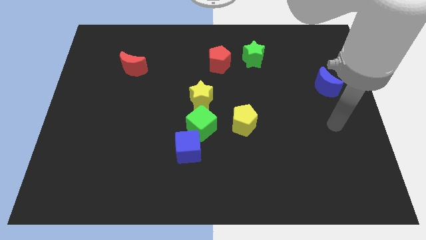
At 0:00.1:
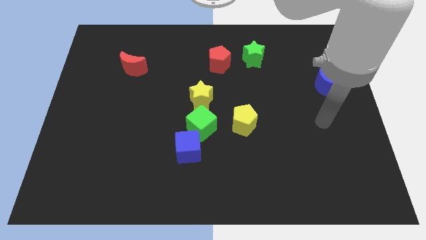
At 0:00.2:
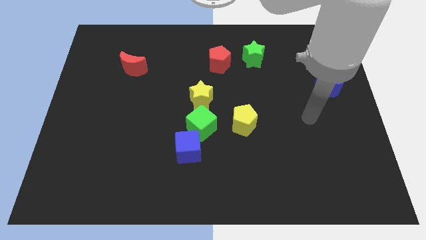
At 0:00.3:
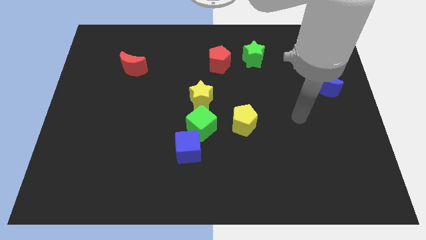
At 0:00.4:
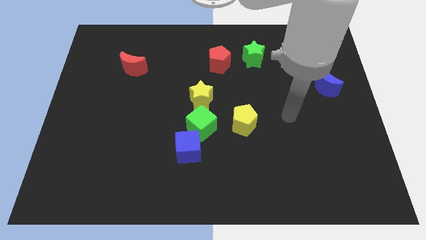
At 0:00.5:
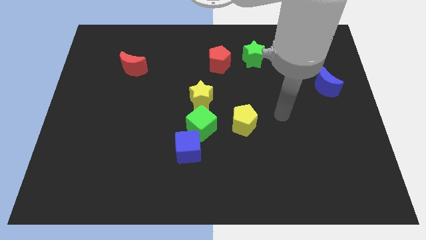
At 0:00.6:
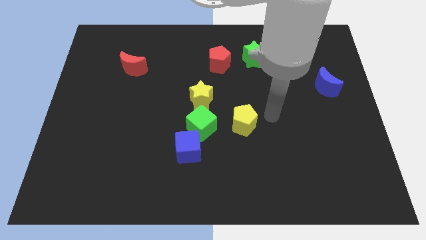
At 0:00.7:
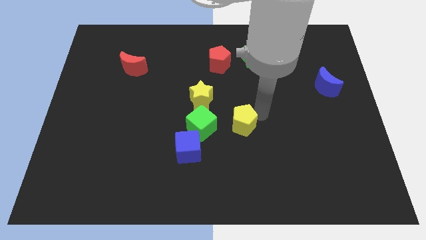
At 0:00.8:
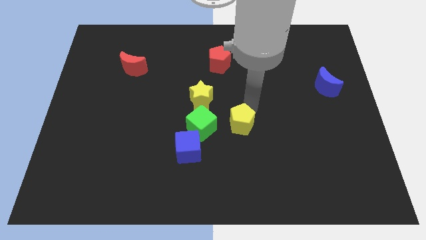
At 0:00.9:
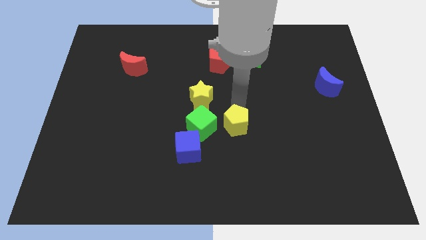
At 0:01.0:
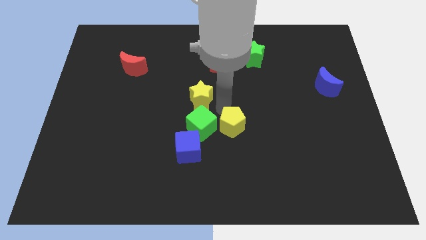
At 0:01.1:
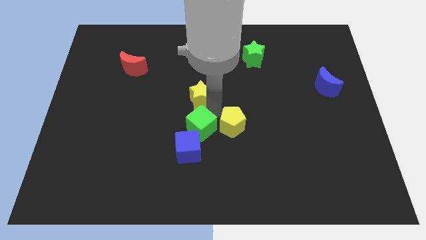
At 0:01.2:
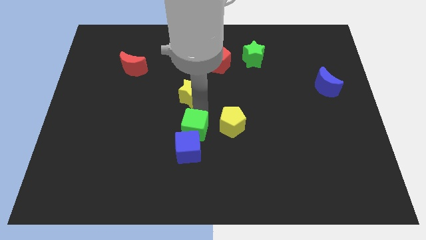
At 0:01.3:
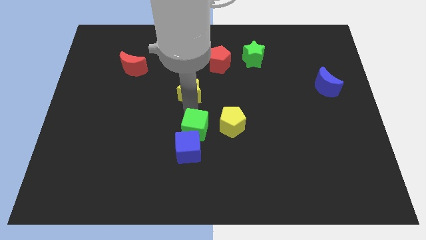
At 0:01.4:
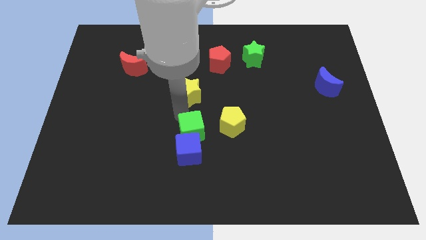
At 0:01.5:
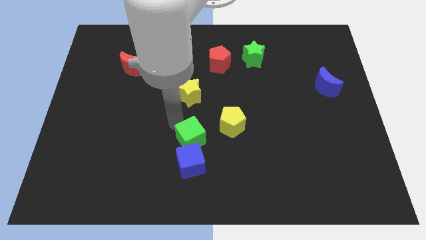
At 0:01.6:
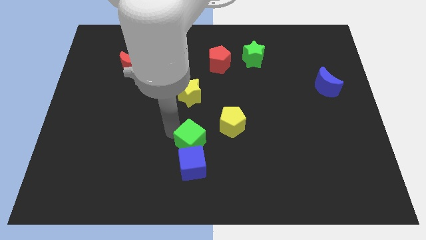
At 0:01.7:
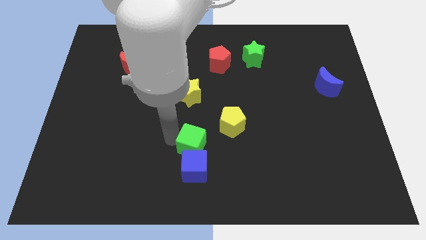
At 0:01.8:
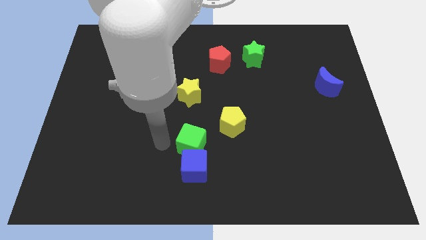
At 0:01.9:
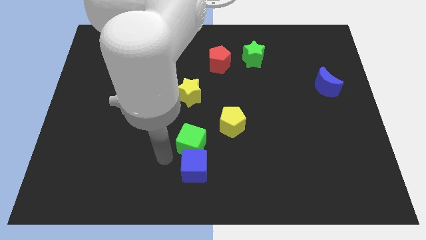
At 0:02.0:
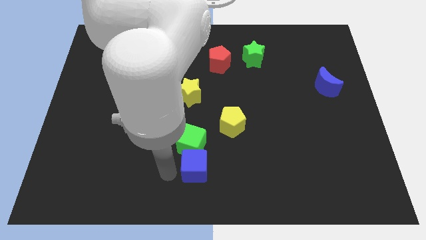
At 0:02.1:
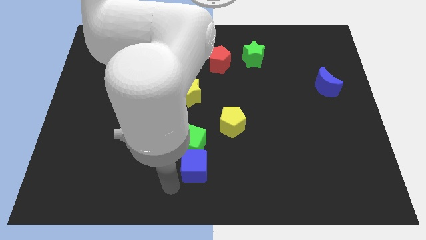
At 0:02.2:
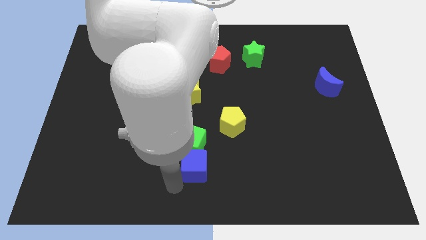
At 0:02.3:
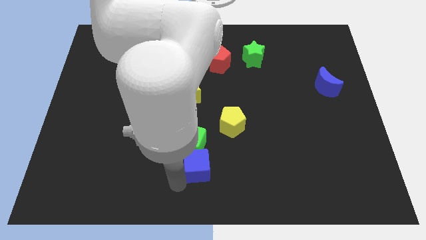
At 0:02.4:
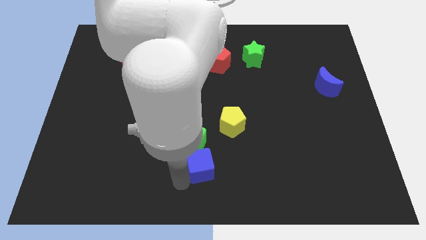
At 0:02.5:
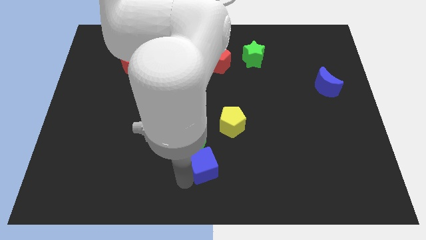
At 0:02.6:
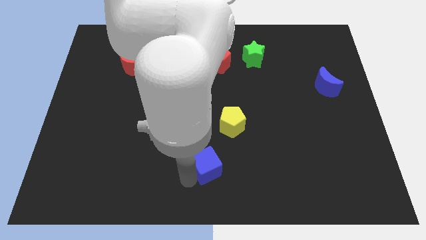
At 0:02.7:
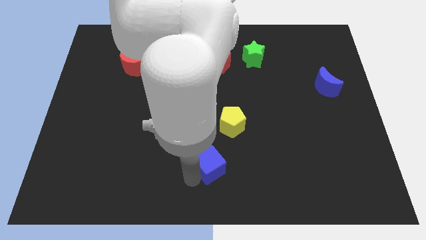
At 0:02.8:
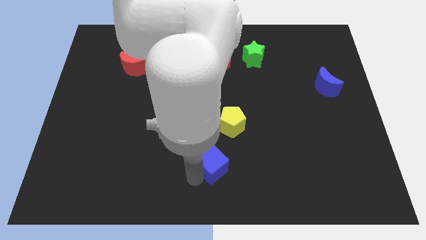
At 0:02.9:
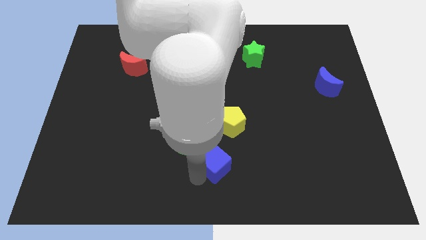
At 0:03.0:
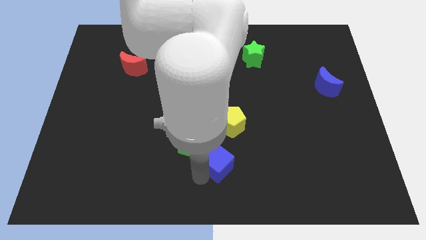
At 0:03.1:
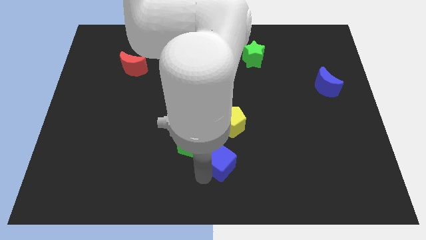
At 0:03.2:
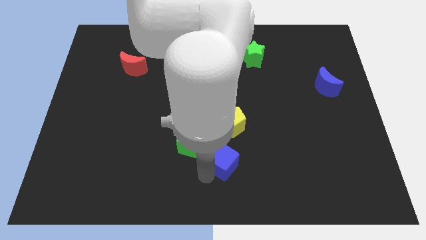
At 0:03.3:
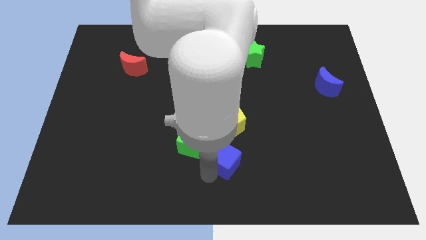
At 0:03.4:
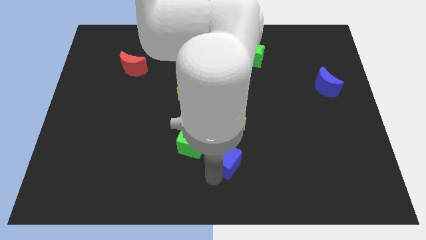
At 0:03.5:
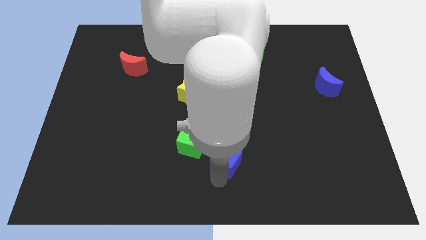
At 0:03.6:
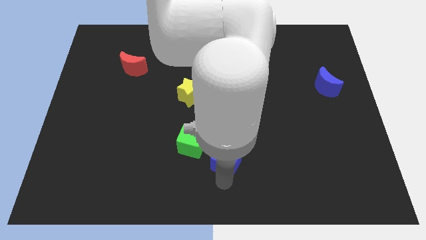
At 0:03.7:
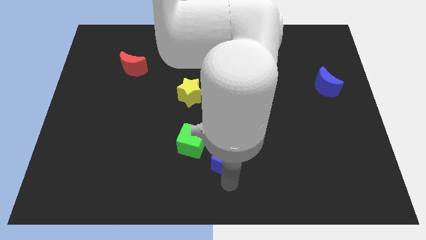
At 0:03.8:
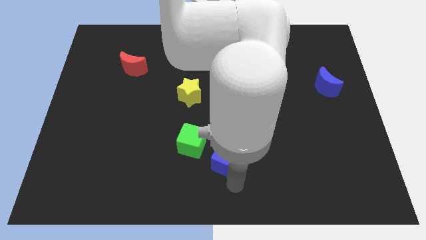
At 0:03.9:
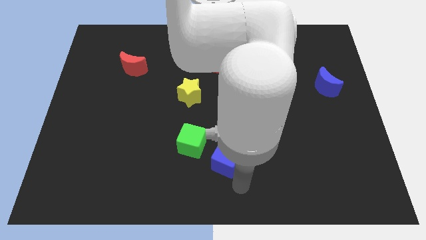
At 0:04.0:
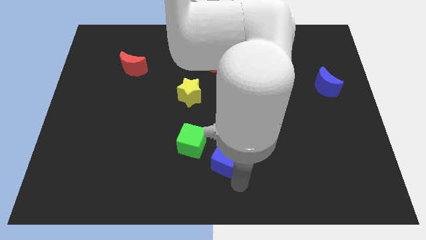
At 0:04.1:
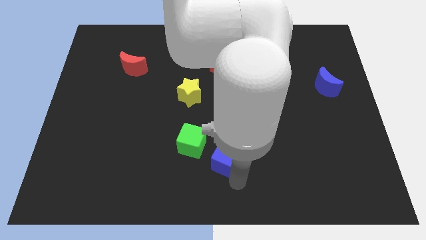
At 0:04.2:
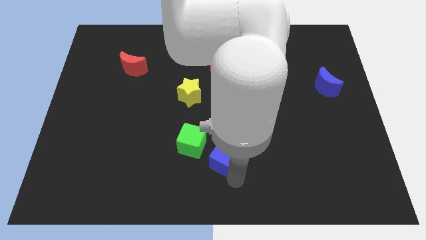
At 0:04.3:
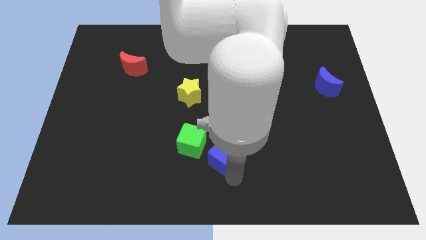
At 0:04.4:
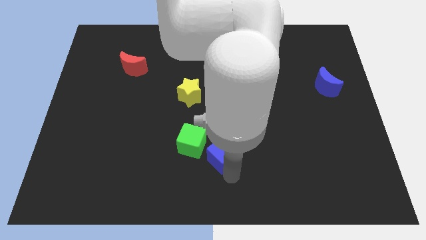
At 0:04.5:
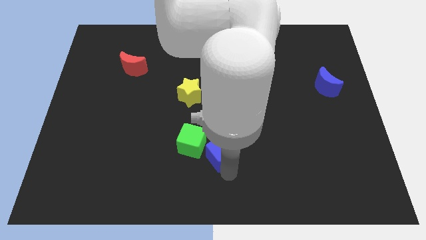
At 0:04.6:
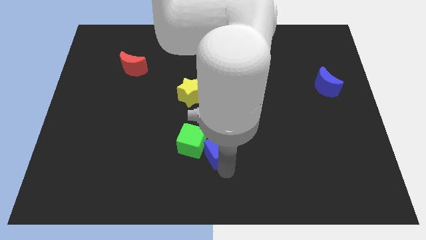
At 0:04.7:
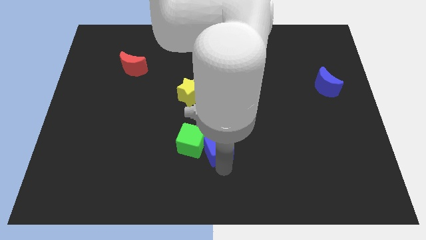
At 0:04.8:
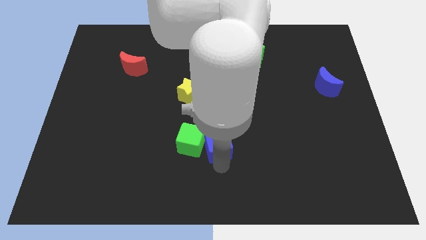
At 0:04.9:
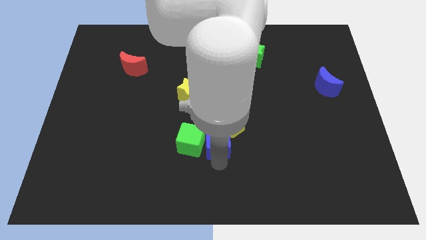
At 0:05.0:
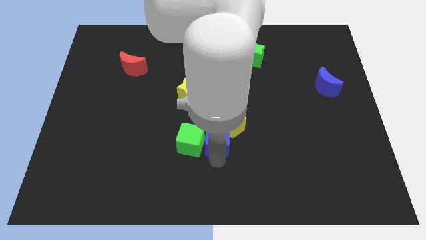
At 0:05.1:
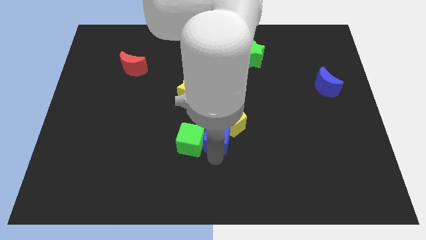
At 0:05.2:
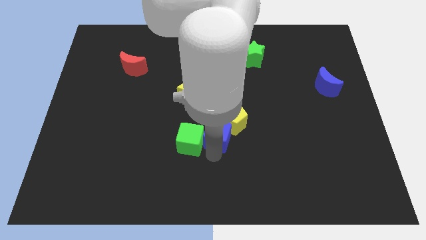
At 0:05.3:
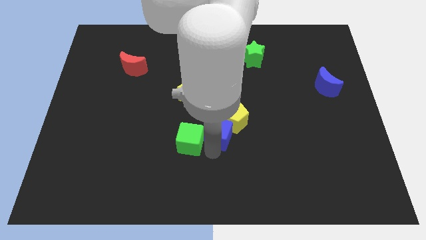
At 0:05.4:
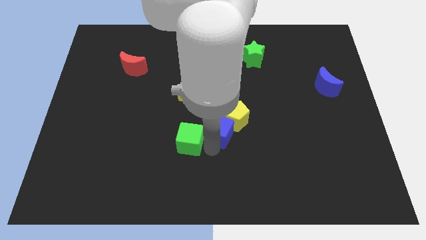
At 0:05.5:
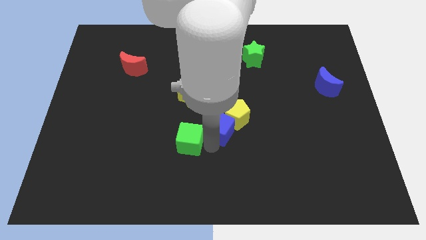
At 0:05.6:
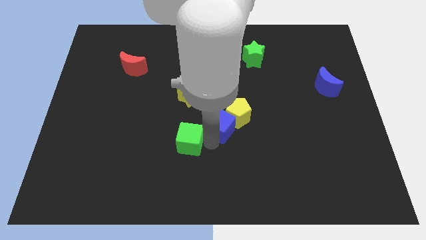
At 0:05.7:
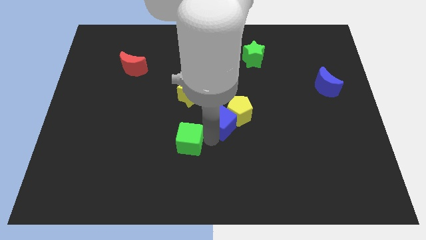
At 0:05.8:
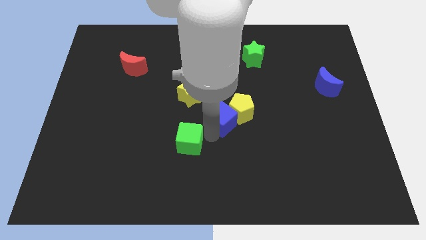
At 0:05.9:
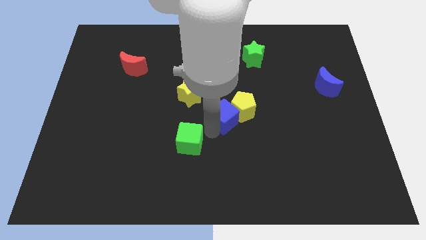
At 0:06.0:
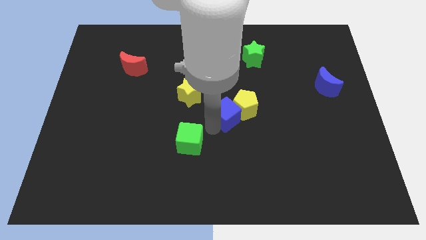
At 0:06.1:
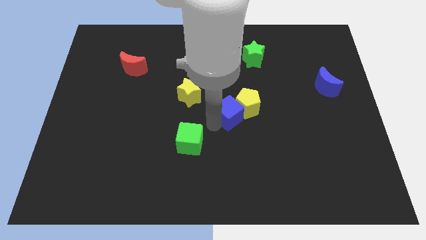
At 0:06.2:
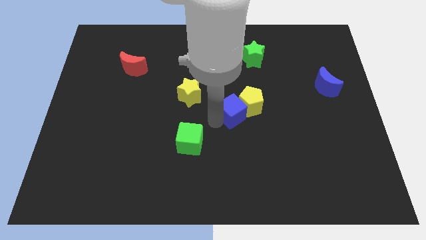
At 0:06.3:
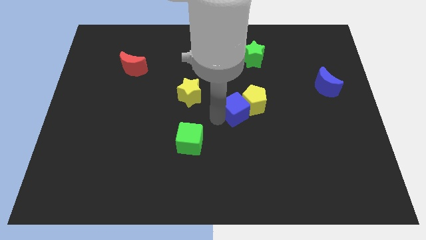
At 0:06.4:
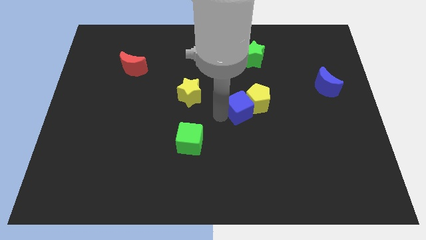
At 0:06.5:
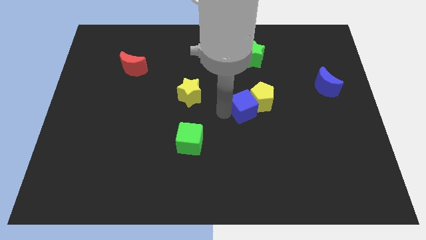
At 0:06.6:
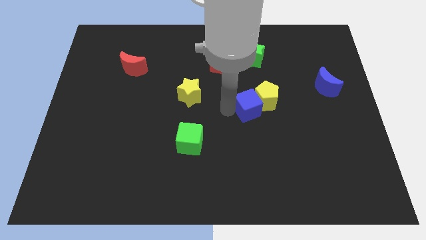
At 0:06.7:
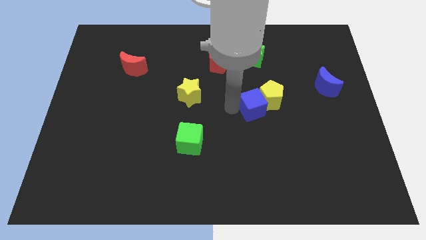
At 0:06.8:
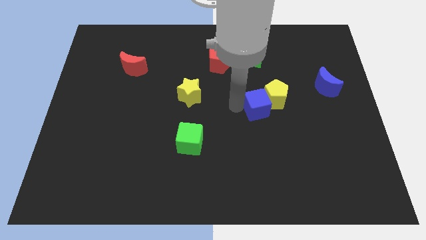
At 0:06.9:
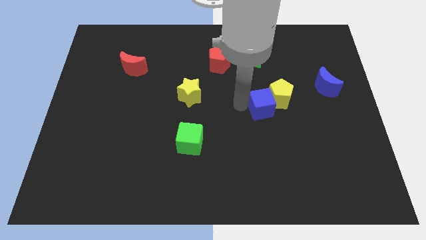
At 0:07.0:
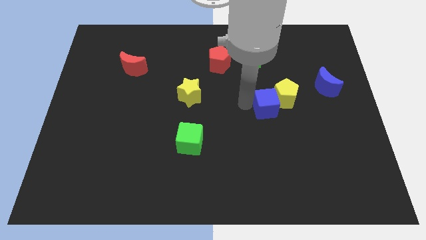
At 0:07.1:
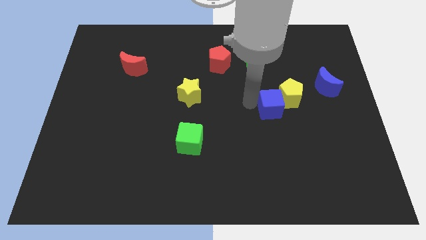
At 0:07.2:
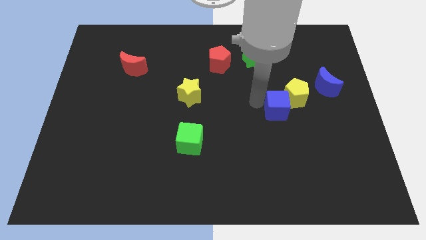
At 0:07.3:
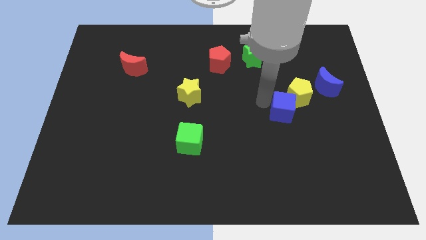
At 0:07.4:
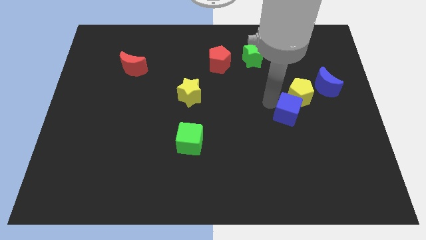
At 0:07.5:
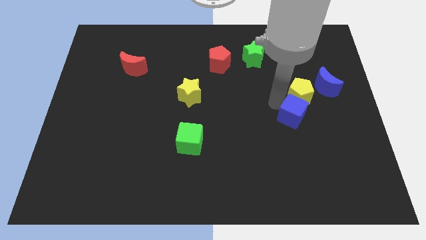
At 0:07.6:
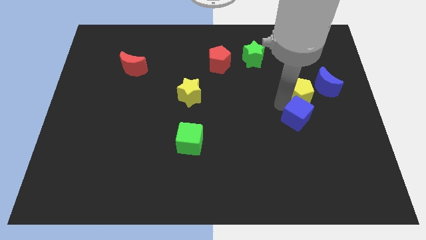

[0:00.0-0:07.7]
move the blue cube right

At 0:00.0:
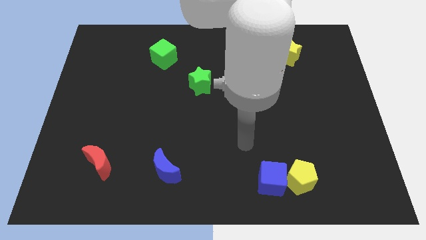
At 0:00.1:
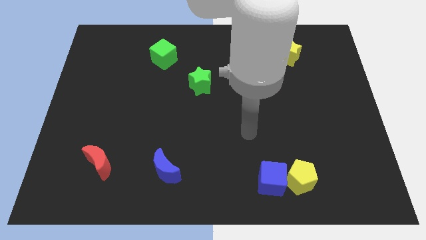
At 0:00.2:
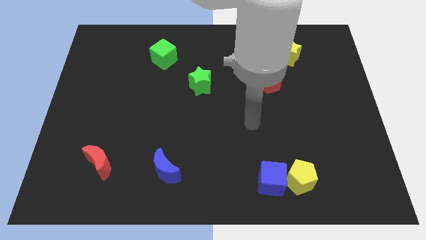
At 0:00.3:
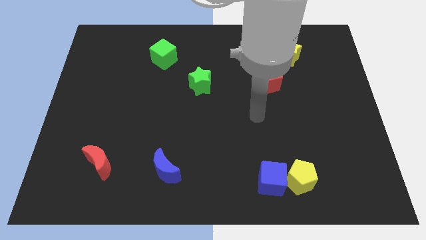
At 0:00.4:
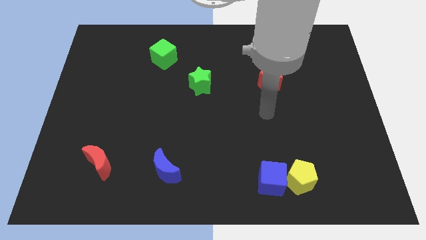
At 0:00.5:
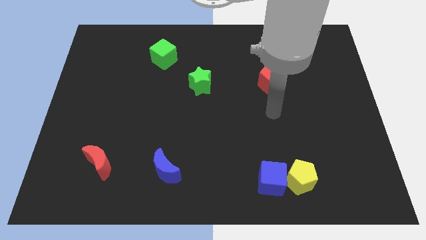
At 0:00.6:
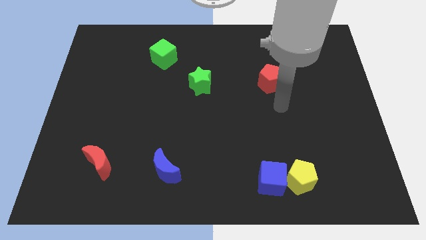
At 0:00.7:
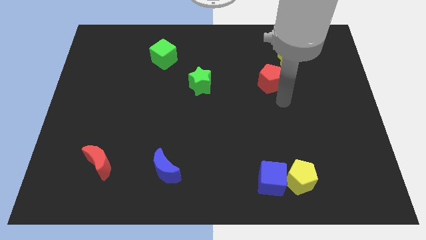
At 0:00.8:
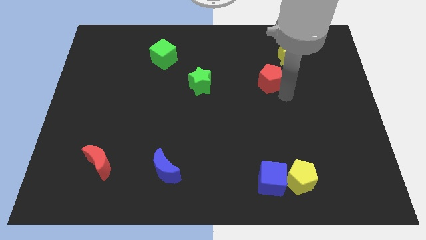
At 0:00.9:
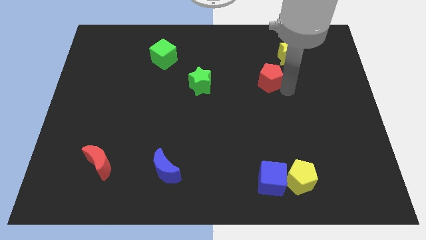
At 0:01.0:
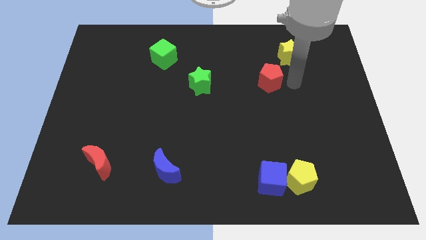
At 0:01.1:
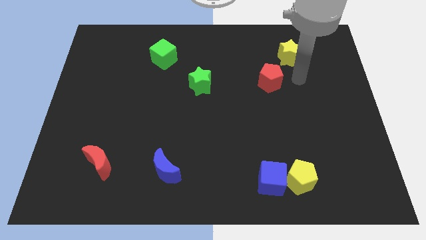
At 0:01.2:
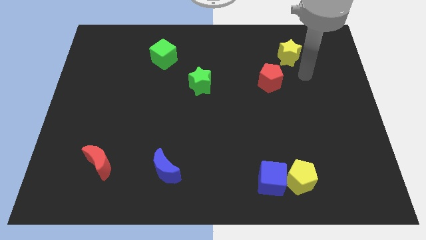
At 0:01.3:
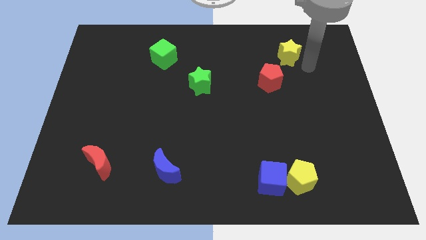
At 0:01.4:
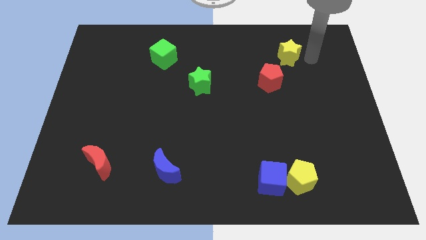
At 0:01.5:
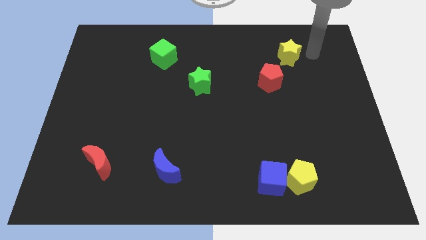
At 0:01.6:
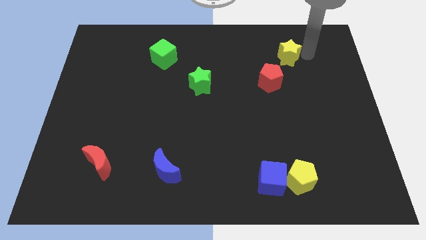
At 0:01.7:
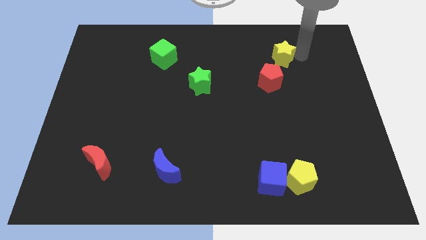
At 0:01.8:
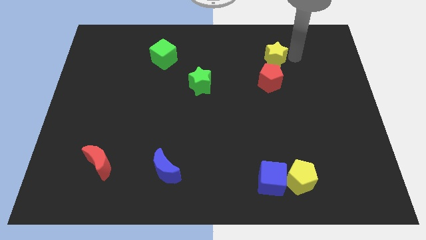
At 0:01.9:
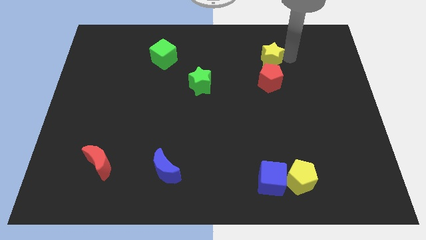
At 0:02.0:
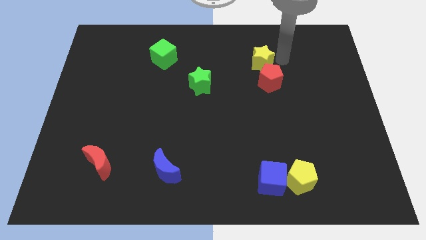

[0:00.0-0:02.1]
slightly push the yellow star left
